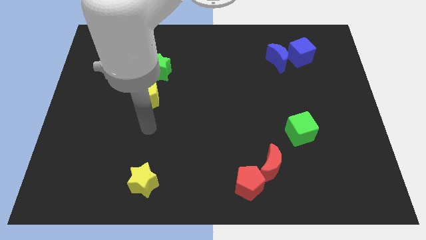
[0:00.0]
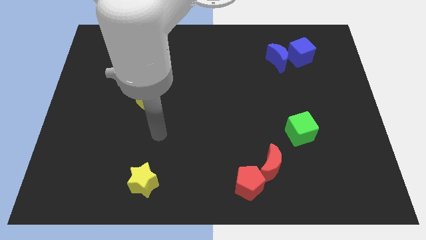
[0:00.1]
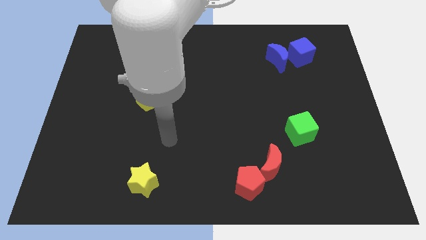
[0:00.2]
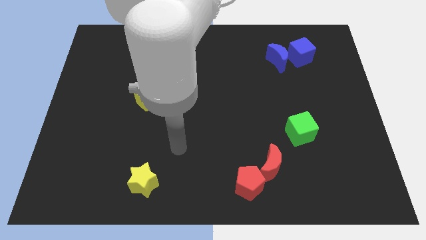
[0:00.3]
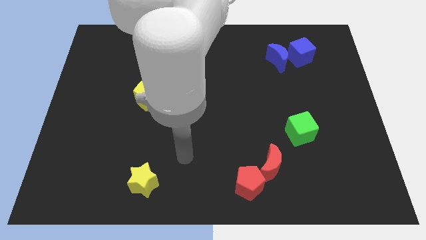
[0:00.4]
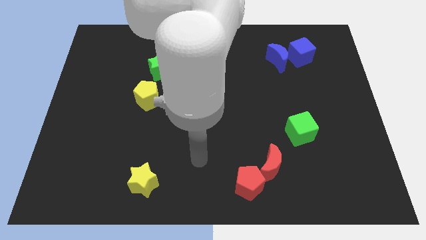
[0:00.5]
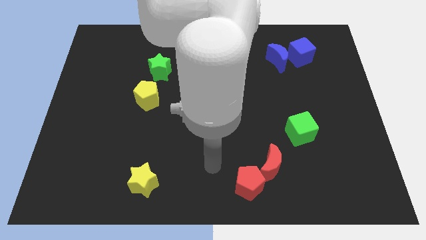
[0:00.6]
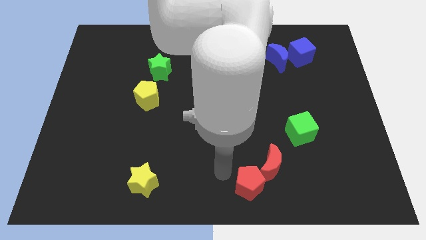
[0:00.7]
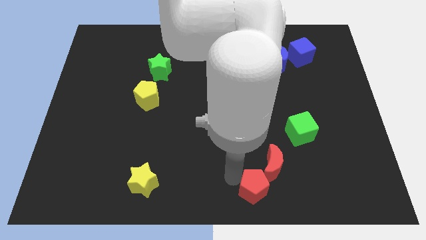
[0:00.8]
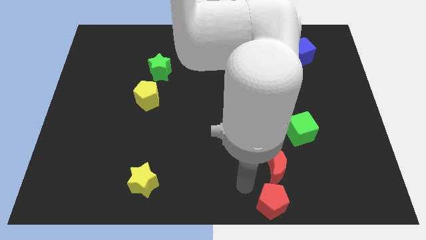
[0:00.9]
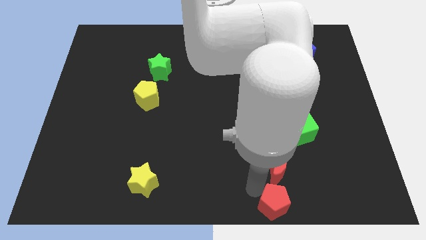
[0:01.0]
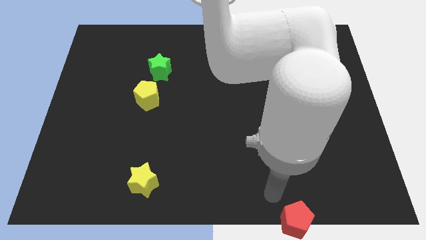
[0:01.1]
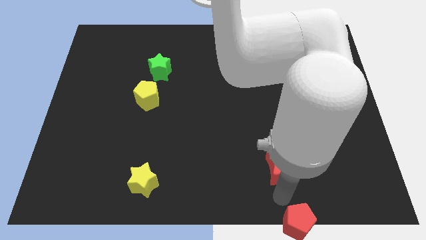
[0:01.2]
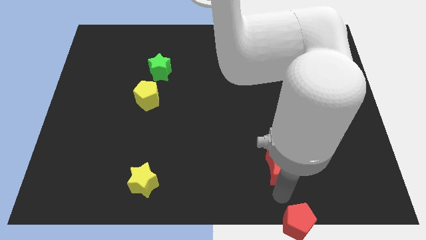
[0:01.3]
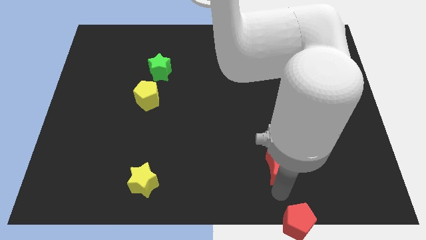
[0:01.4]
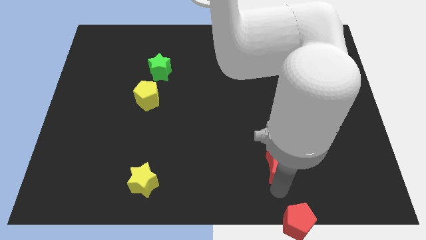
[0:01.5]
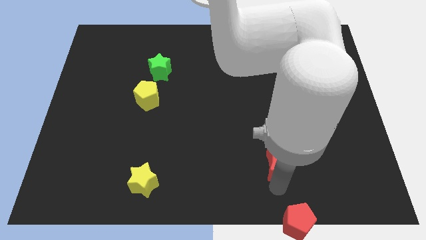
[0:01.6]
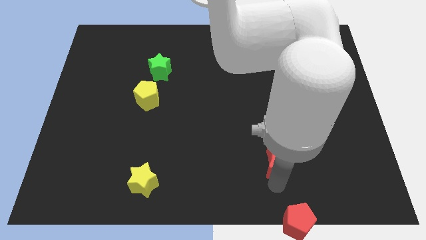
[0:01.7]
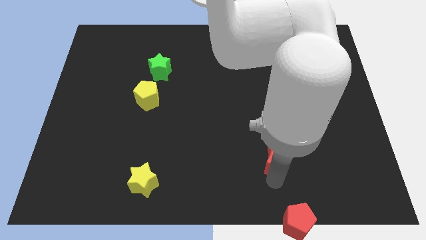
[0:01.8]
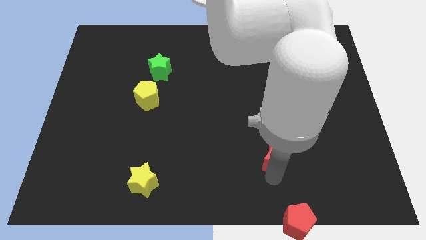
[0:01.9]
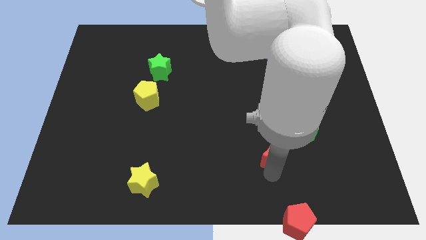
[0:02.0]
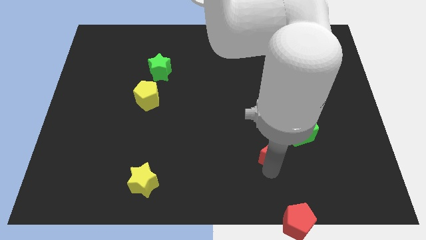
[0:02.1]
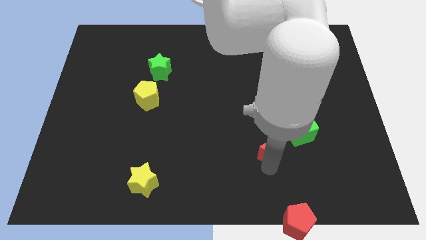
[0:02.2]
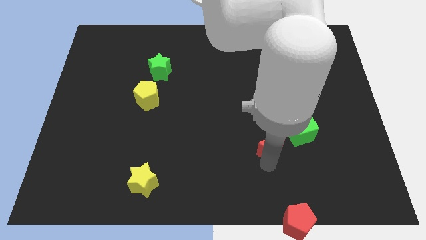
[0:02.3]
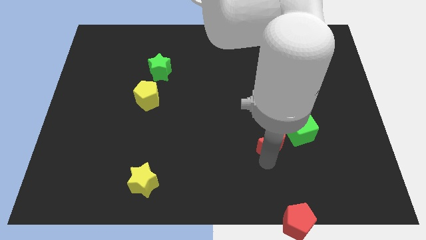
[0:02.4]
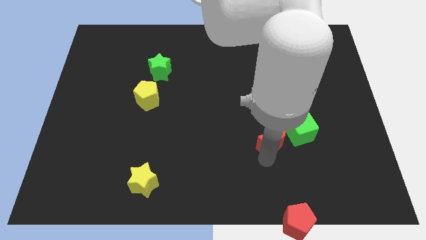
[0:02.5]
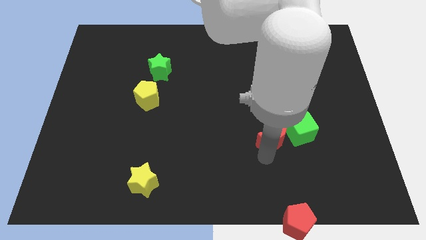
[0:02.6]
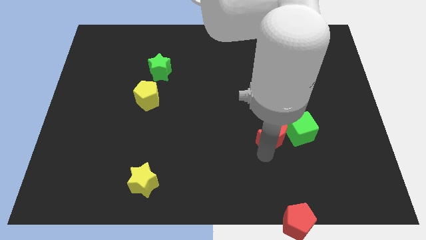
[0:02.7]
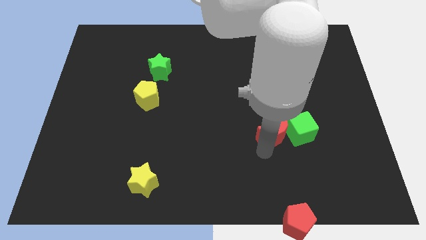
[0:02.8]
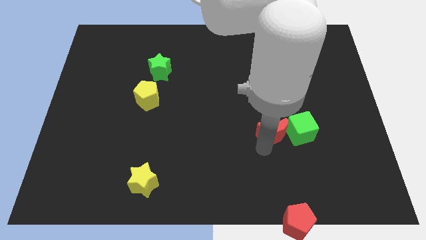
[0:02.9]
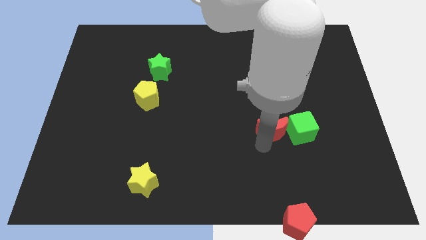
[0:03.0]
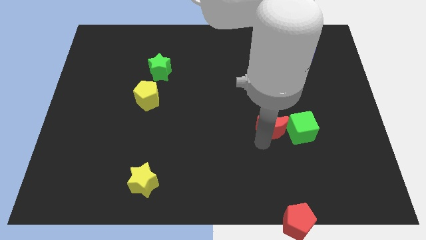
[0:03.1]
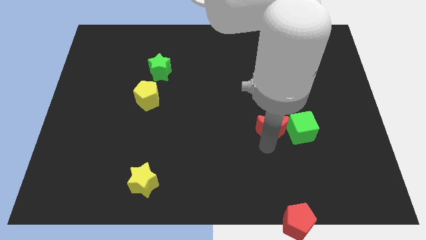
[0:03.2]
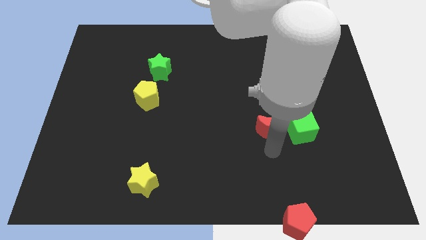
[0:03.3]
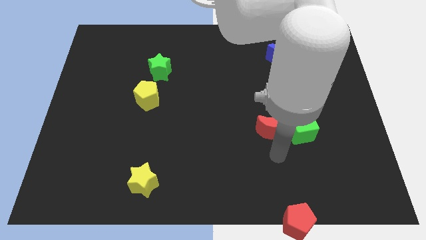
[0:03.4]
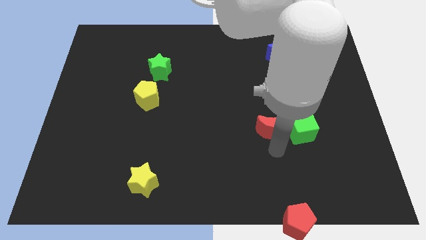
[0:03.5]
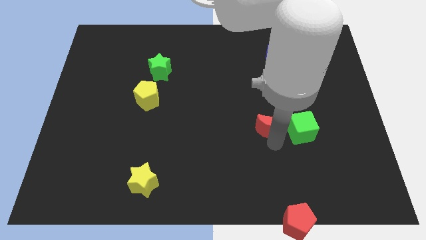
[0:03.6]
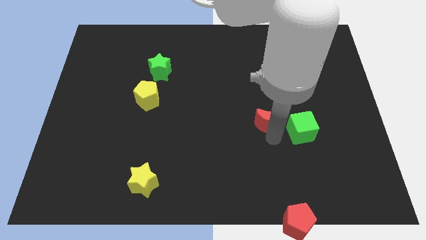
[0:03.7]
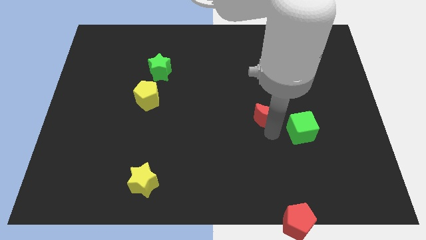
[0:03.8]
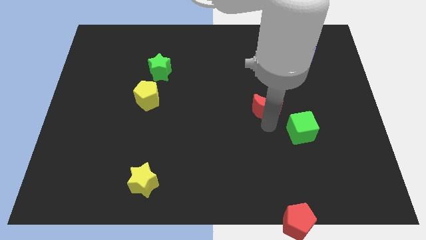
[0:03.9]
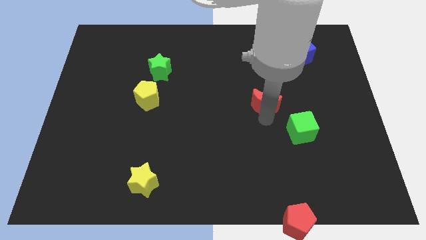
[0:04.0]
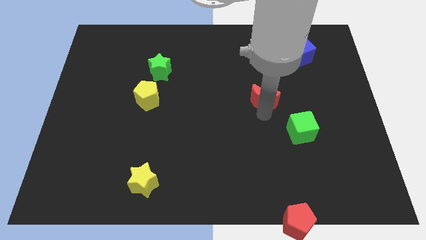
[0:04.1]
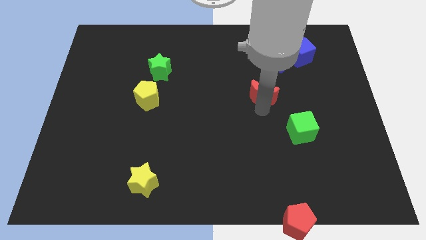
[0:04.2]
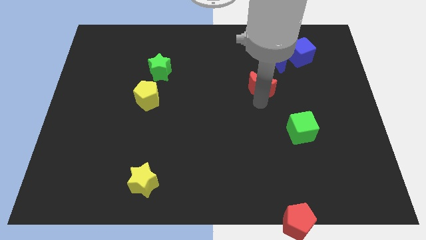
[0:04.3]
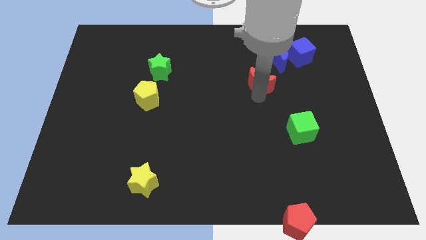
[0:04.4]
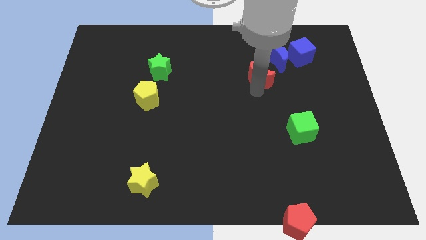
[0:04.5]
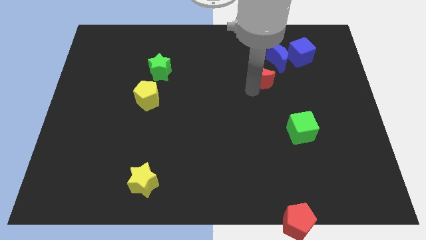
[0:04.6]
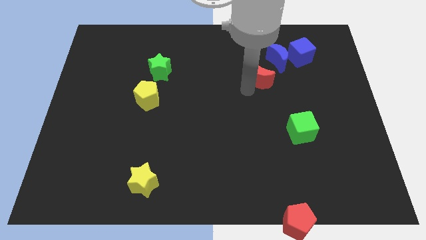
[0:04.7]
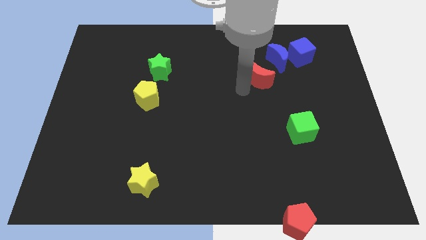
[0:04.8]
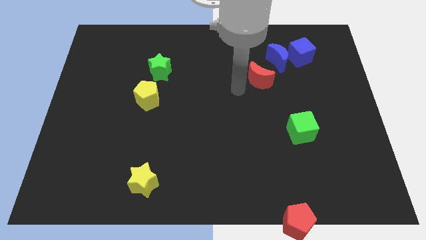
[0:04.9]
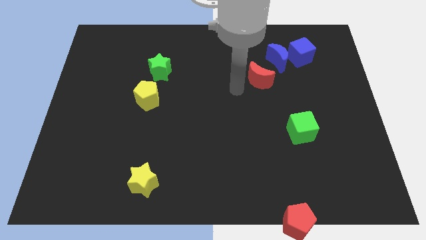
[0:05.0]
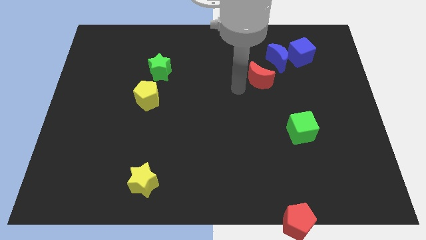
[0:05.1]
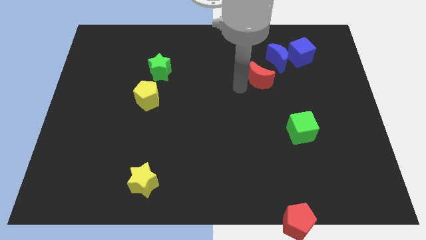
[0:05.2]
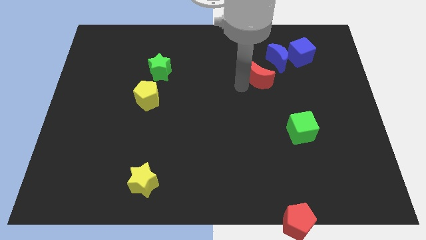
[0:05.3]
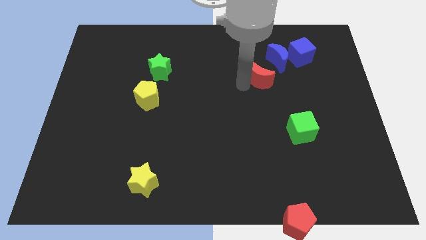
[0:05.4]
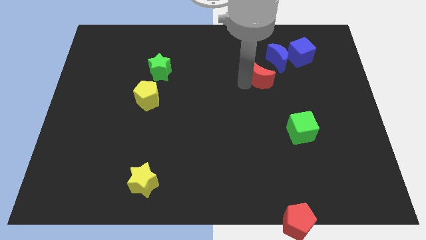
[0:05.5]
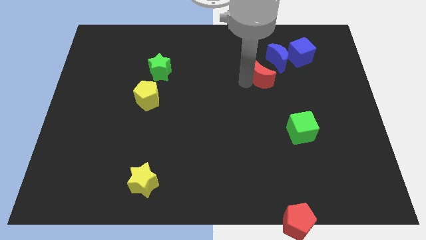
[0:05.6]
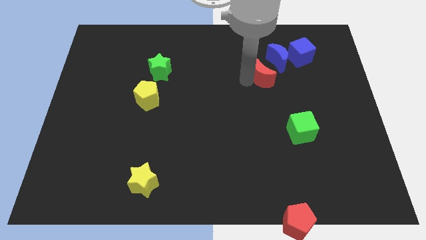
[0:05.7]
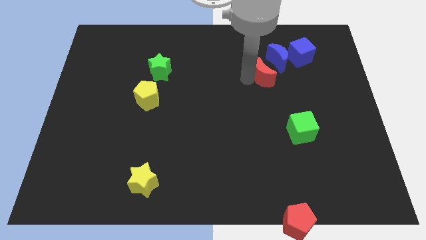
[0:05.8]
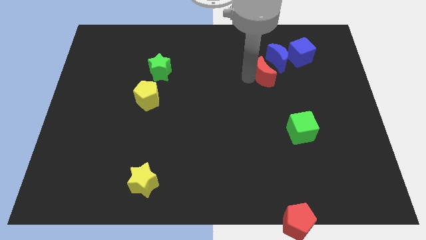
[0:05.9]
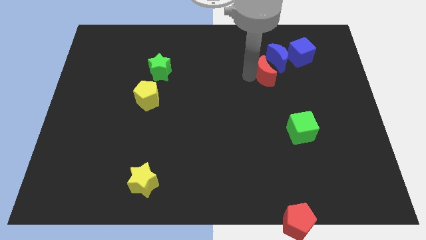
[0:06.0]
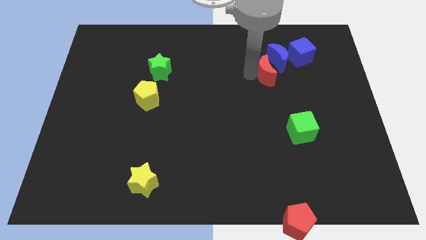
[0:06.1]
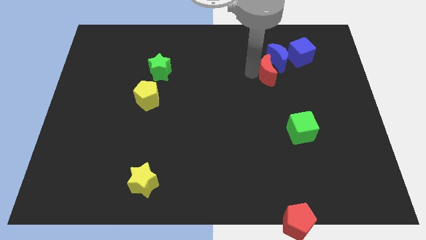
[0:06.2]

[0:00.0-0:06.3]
push the red moon next to the blue moon

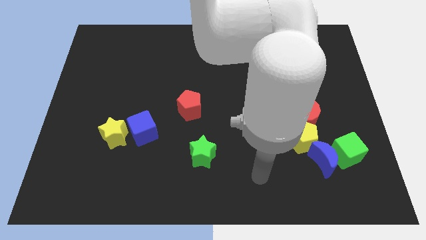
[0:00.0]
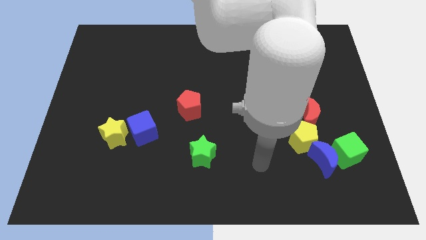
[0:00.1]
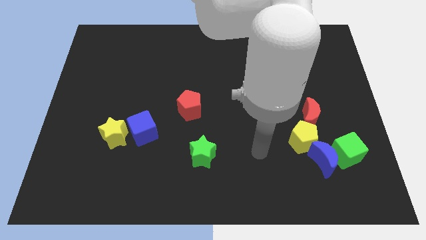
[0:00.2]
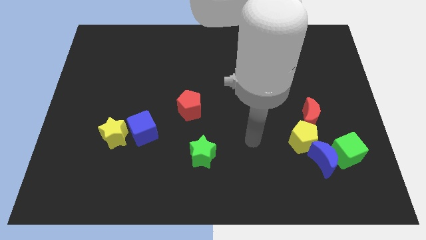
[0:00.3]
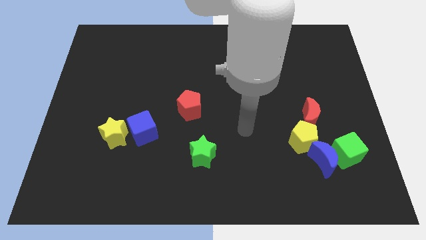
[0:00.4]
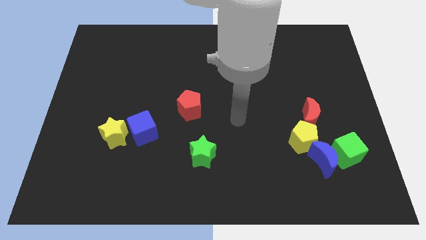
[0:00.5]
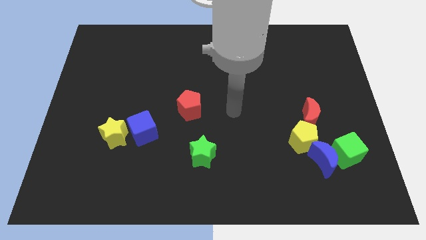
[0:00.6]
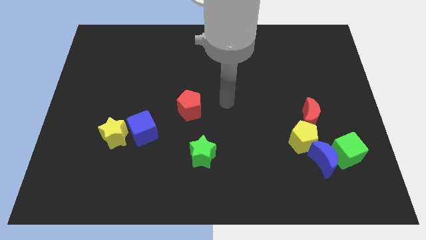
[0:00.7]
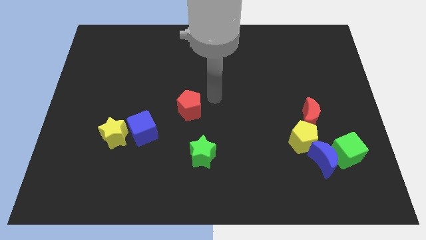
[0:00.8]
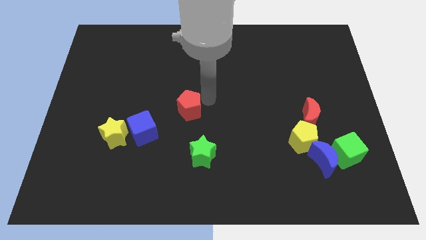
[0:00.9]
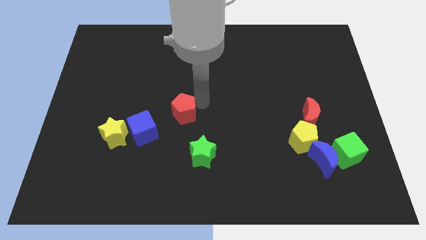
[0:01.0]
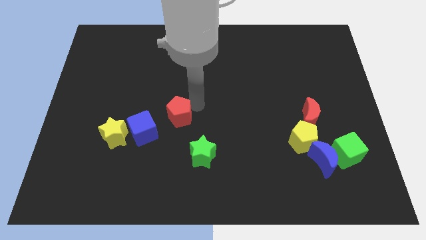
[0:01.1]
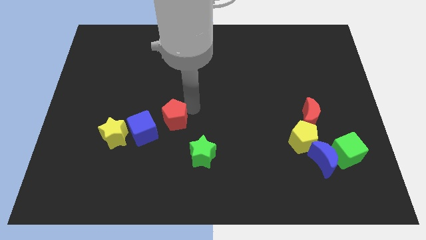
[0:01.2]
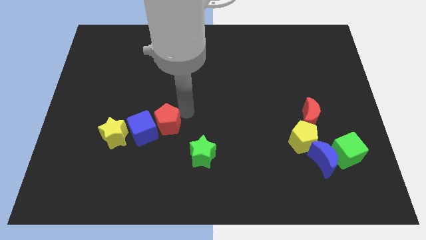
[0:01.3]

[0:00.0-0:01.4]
slide the red pentagon close to the blue cube
